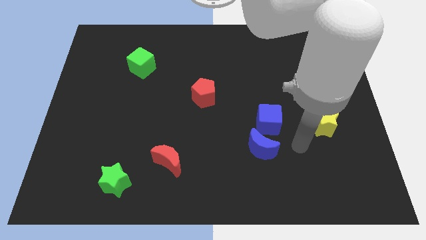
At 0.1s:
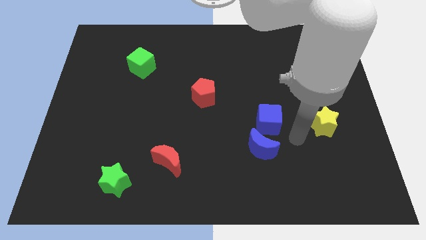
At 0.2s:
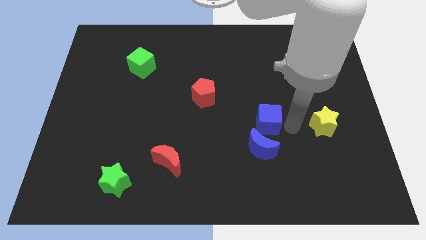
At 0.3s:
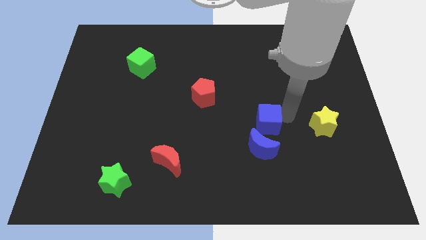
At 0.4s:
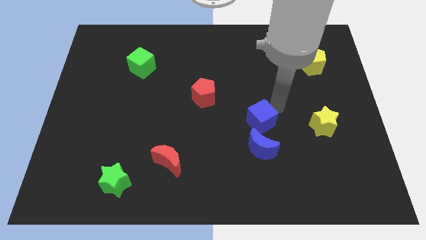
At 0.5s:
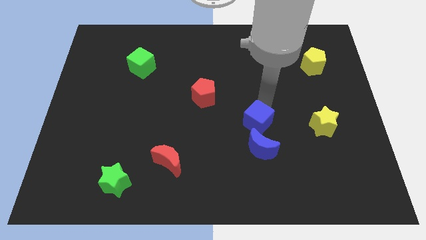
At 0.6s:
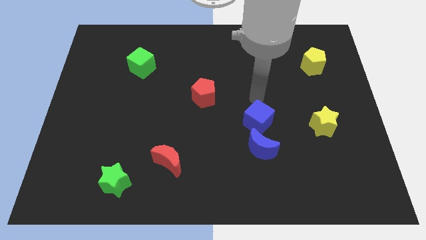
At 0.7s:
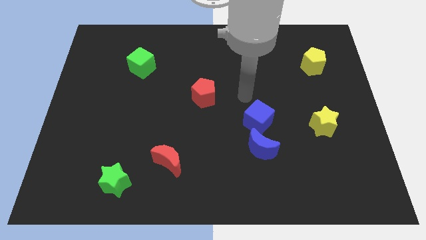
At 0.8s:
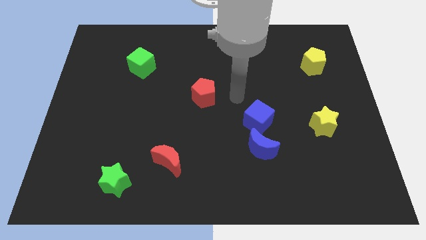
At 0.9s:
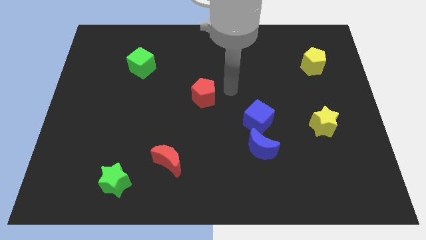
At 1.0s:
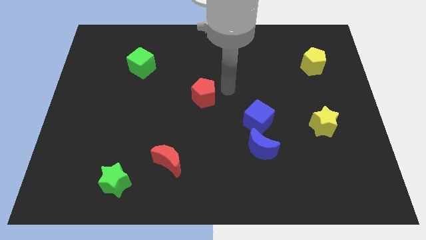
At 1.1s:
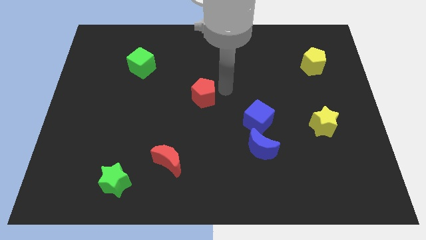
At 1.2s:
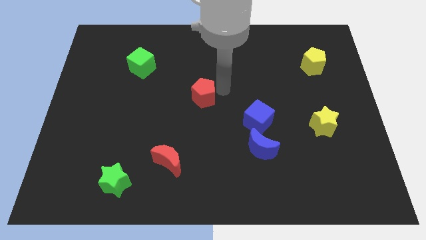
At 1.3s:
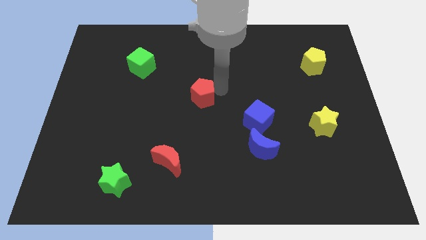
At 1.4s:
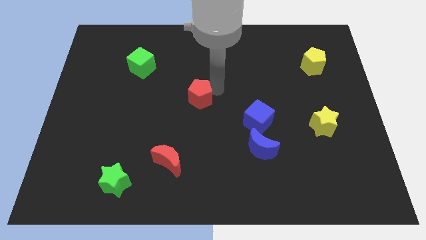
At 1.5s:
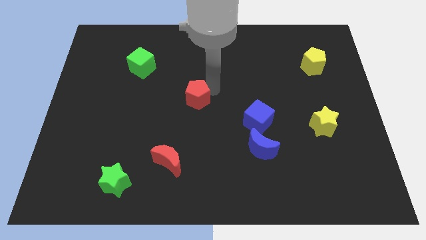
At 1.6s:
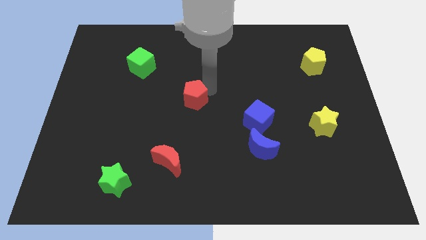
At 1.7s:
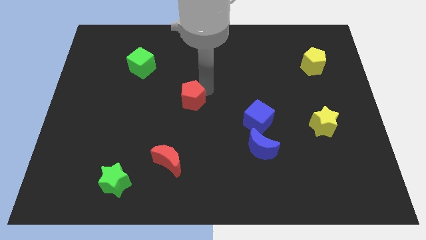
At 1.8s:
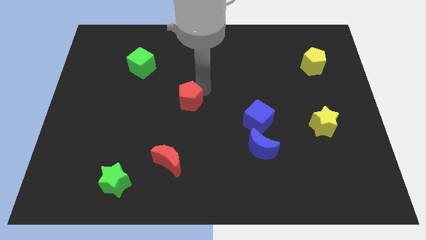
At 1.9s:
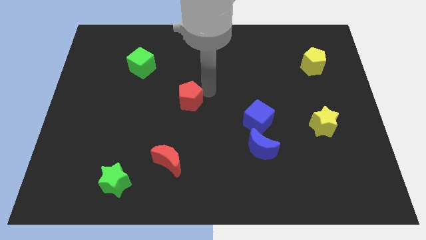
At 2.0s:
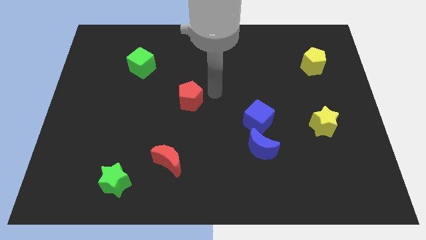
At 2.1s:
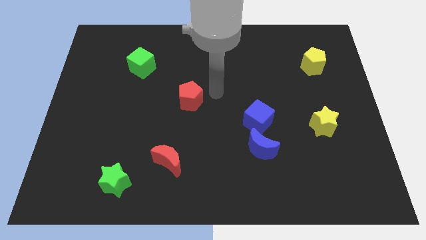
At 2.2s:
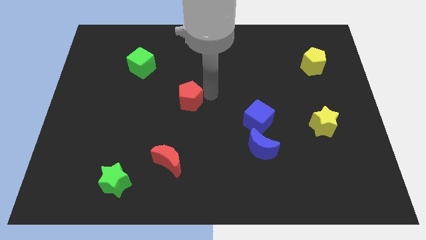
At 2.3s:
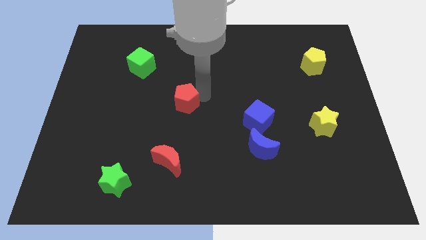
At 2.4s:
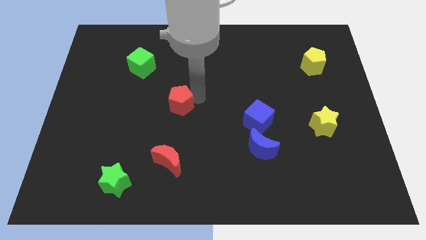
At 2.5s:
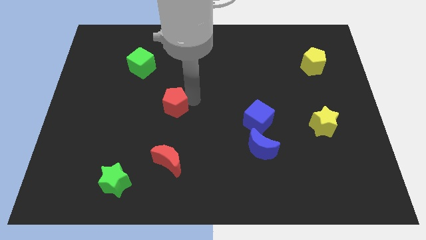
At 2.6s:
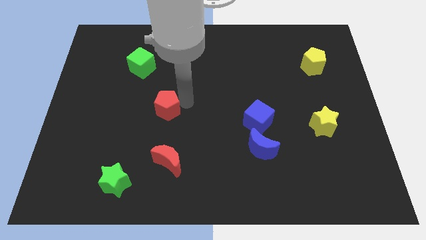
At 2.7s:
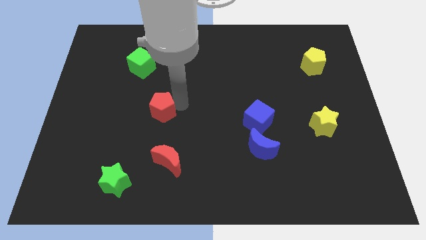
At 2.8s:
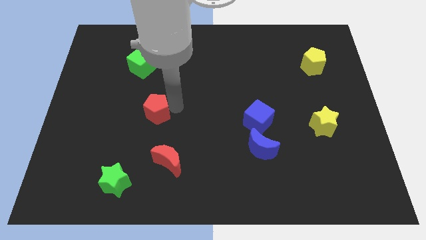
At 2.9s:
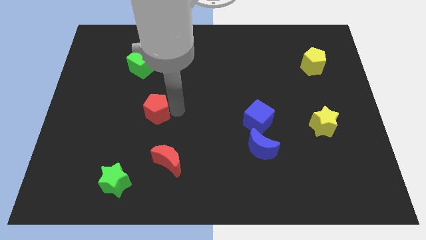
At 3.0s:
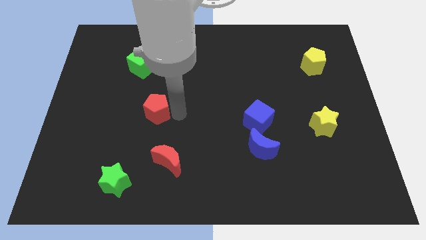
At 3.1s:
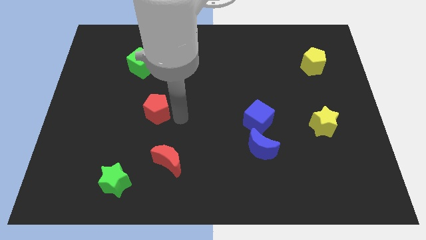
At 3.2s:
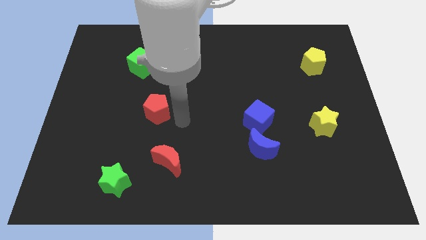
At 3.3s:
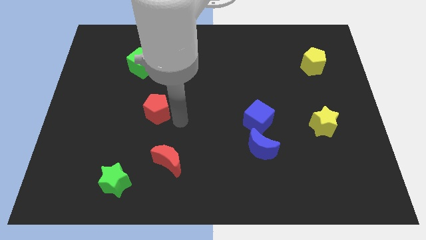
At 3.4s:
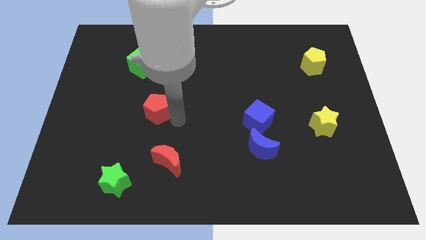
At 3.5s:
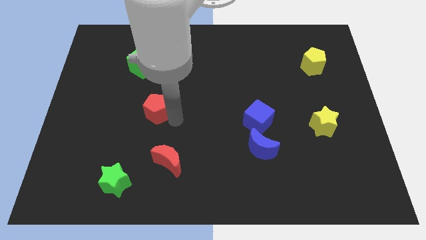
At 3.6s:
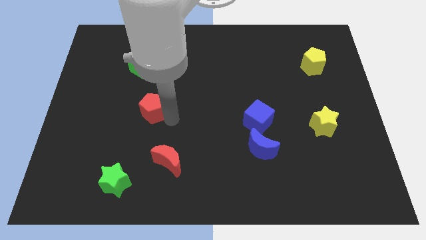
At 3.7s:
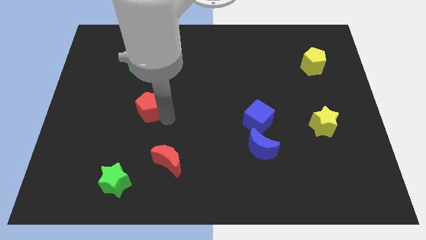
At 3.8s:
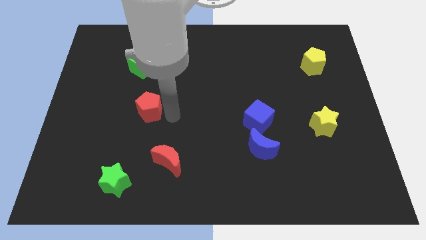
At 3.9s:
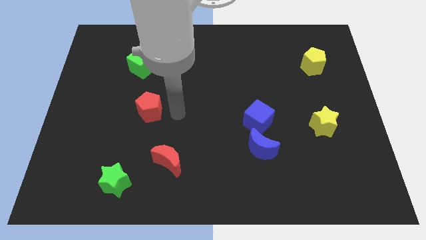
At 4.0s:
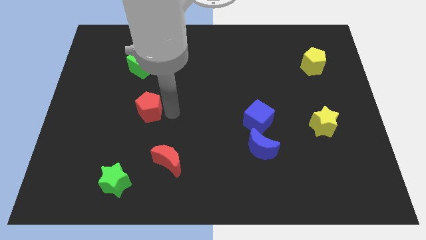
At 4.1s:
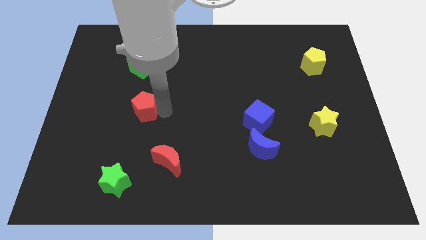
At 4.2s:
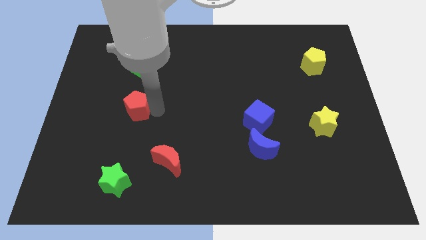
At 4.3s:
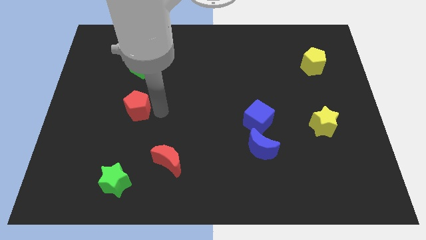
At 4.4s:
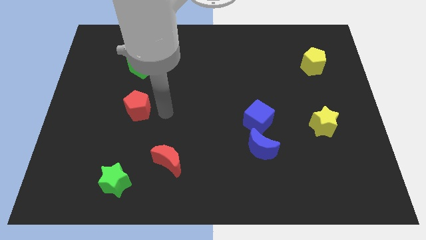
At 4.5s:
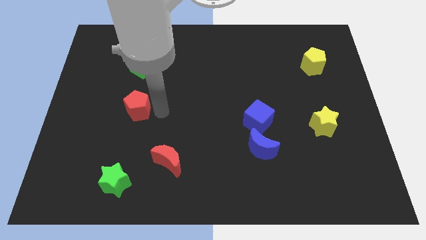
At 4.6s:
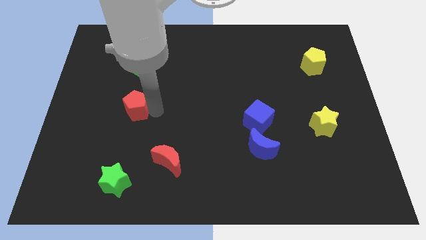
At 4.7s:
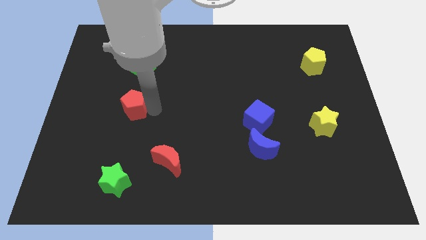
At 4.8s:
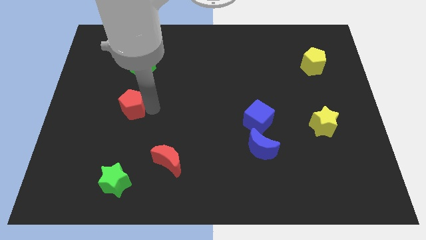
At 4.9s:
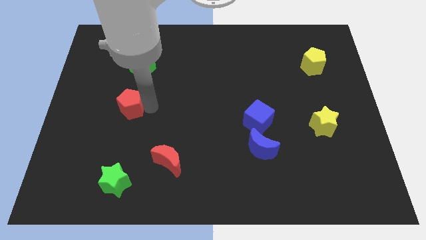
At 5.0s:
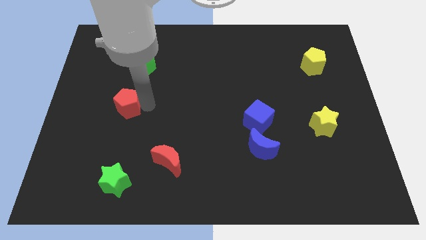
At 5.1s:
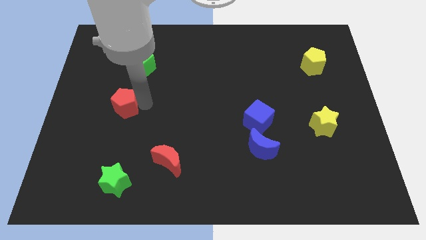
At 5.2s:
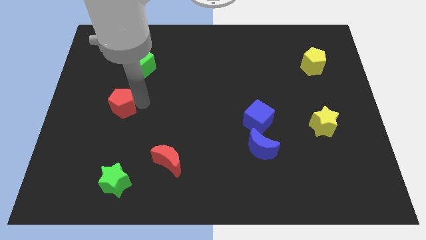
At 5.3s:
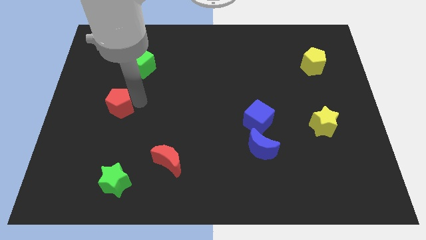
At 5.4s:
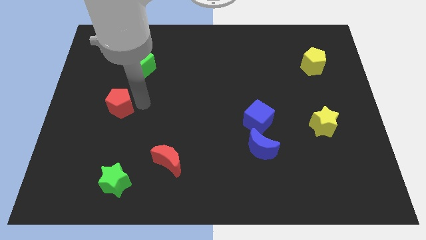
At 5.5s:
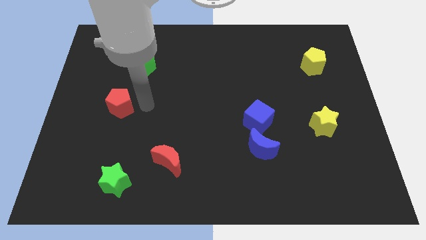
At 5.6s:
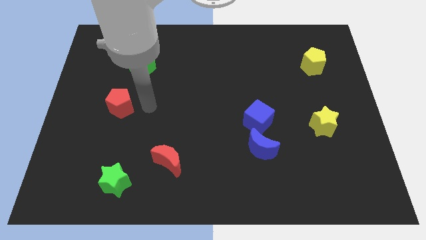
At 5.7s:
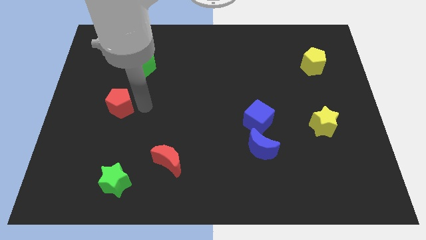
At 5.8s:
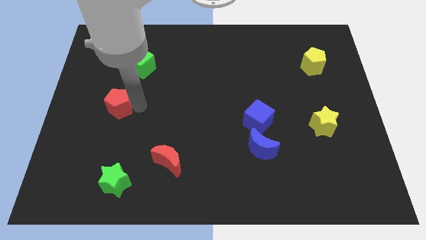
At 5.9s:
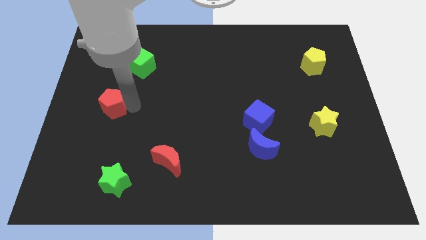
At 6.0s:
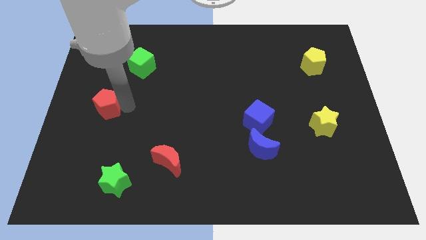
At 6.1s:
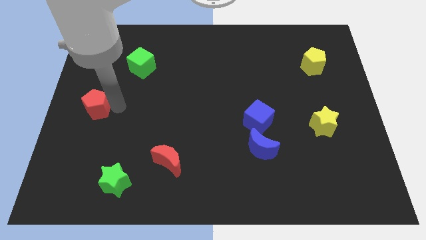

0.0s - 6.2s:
push the red pentagon to the center left

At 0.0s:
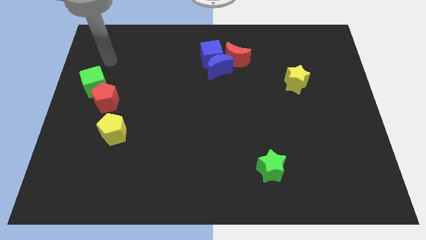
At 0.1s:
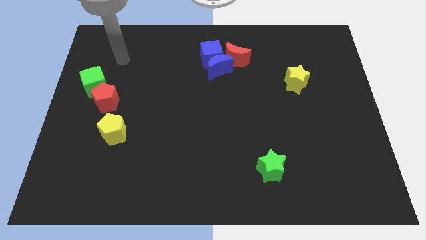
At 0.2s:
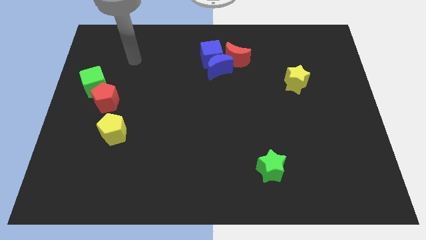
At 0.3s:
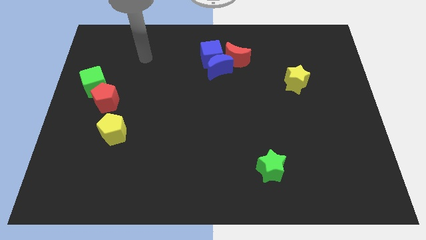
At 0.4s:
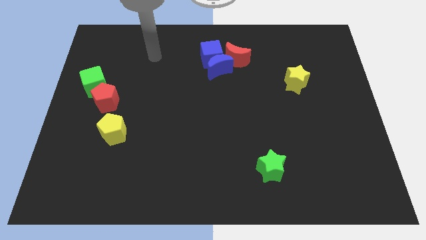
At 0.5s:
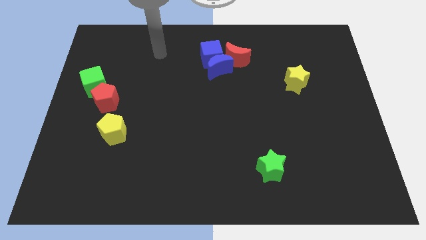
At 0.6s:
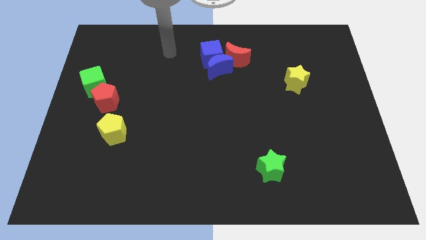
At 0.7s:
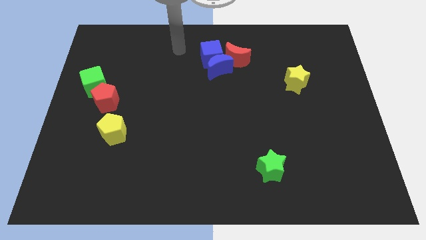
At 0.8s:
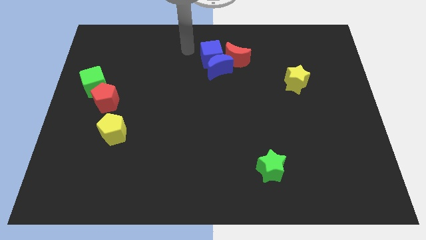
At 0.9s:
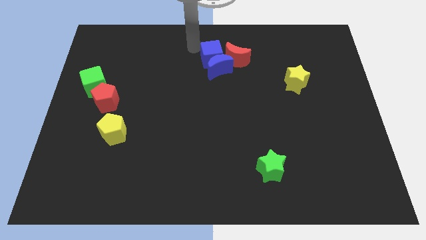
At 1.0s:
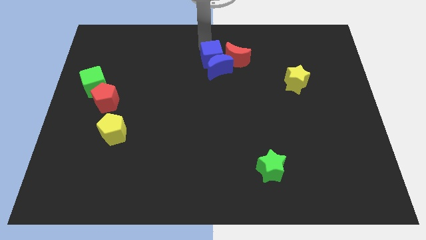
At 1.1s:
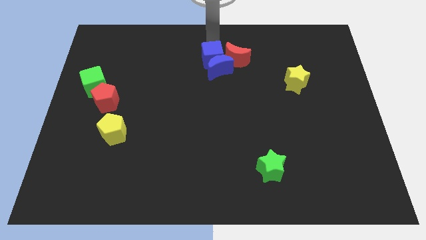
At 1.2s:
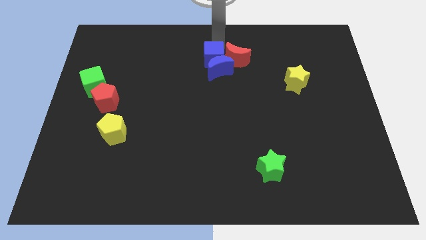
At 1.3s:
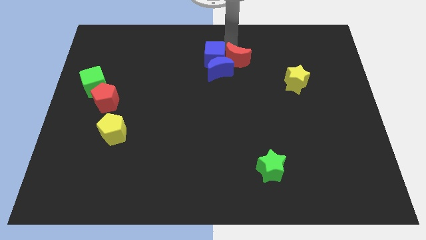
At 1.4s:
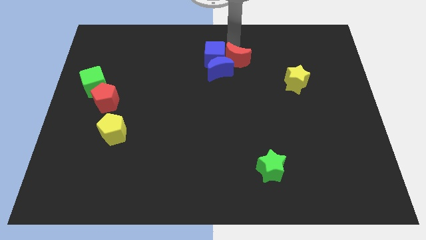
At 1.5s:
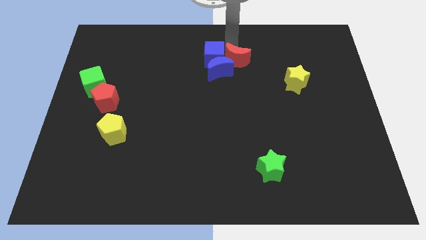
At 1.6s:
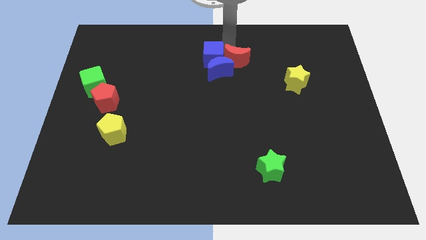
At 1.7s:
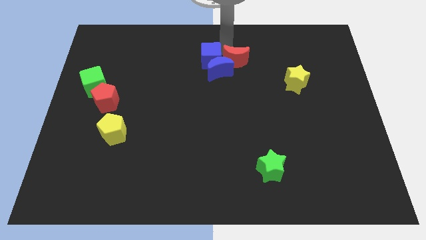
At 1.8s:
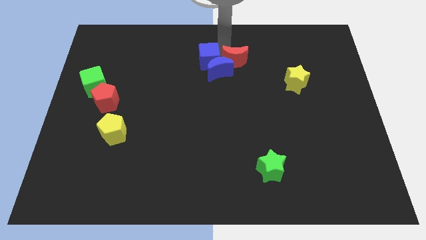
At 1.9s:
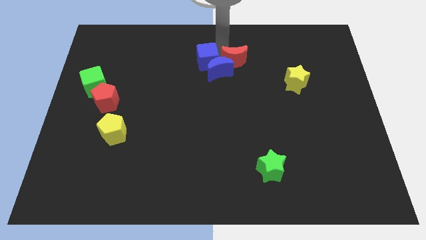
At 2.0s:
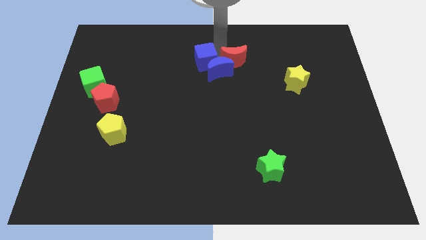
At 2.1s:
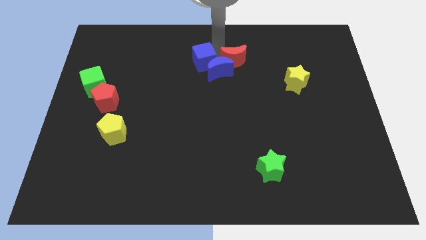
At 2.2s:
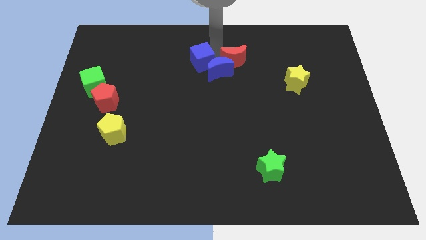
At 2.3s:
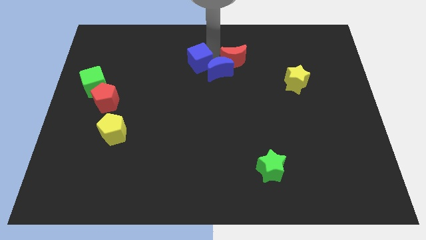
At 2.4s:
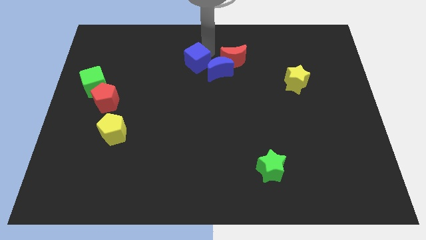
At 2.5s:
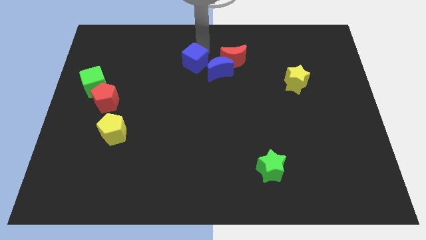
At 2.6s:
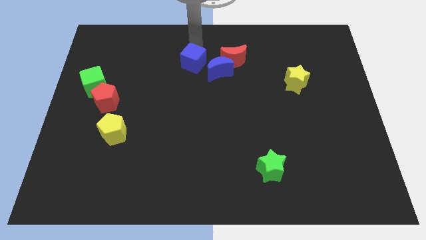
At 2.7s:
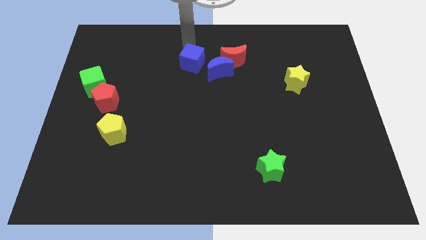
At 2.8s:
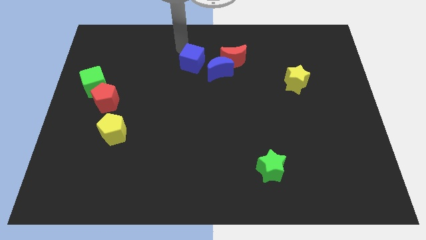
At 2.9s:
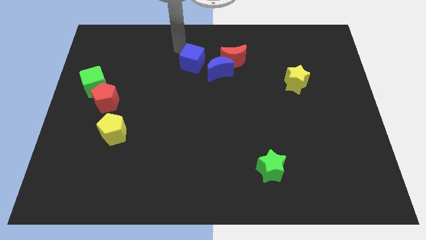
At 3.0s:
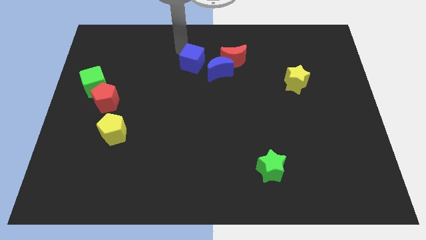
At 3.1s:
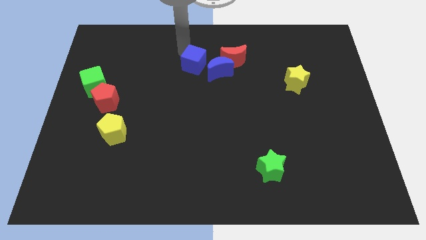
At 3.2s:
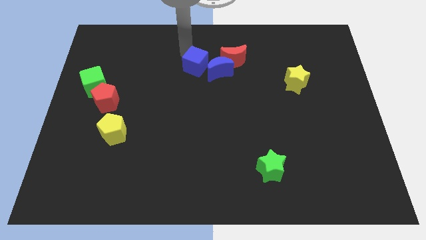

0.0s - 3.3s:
push the blue cube to the middle
